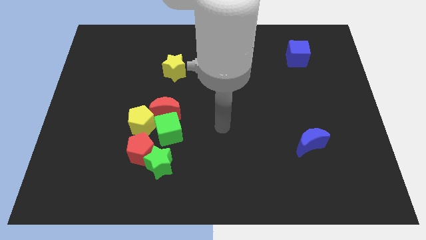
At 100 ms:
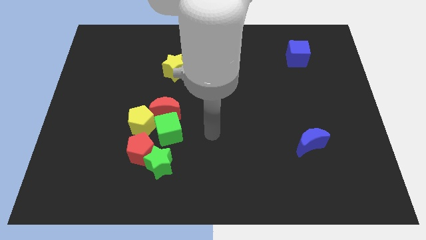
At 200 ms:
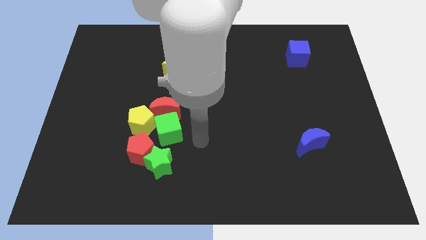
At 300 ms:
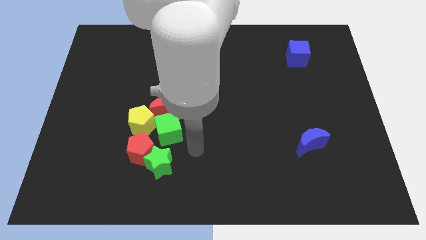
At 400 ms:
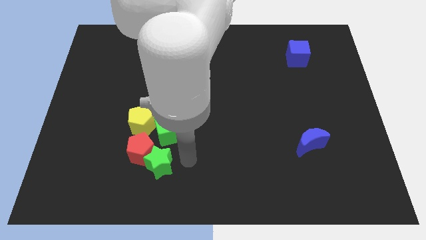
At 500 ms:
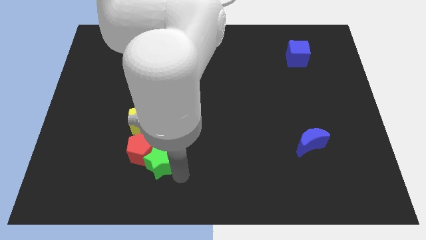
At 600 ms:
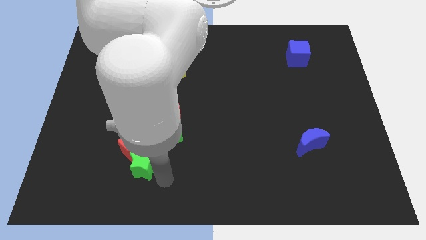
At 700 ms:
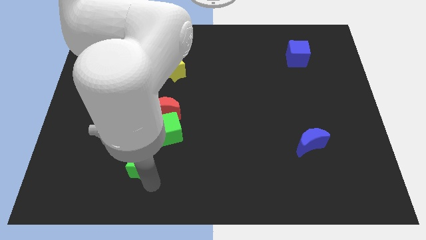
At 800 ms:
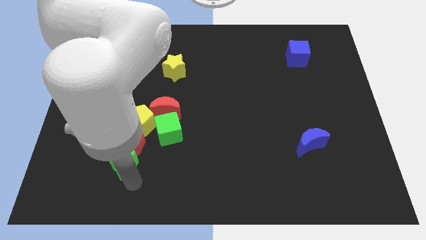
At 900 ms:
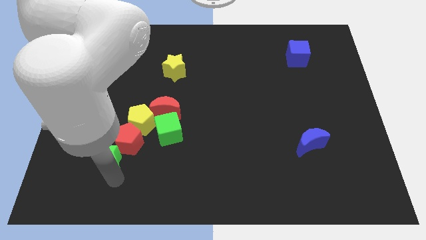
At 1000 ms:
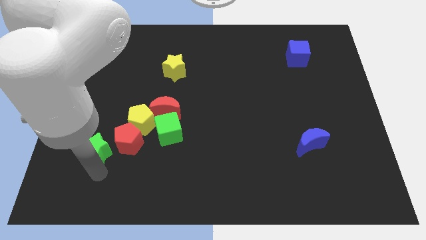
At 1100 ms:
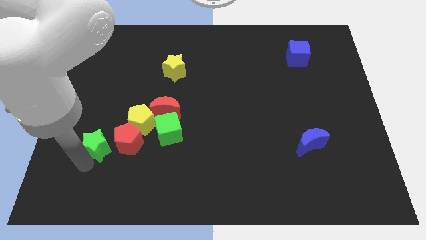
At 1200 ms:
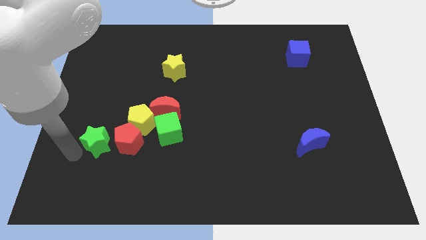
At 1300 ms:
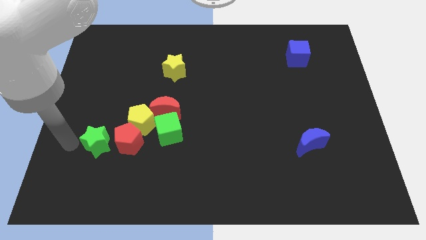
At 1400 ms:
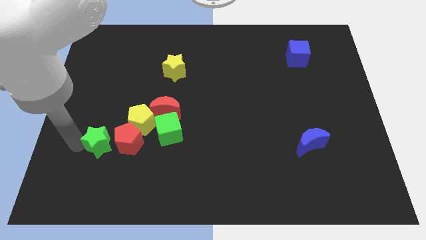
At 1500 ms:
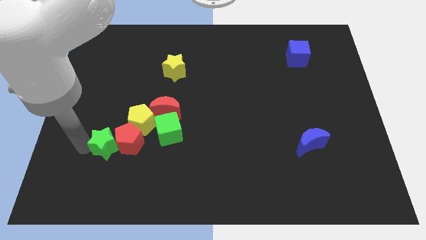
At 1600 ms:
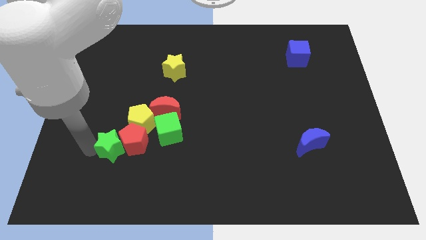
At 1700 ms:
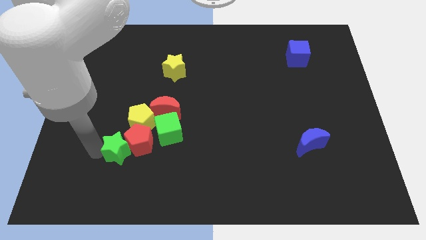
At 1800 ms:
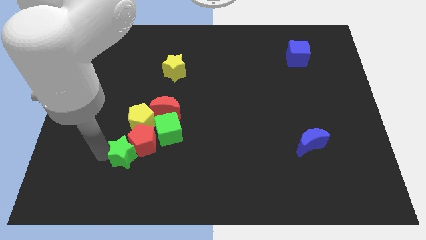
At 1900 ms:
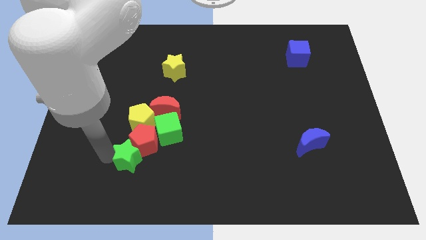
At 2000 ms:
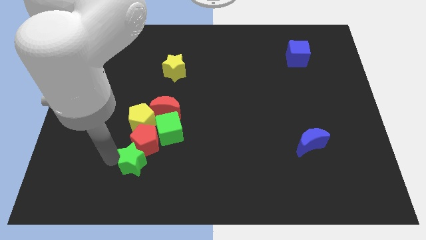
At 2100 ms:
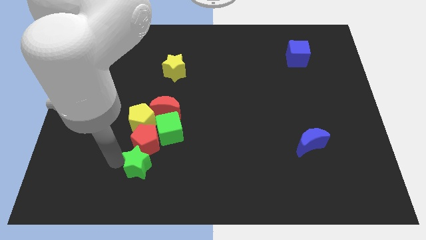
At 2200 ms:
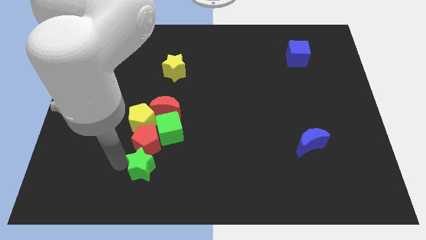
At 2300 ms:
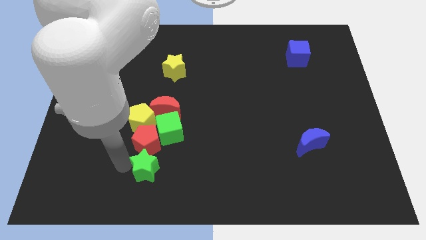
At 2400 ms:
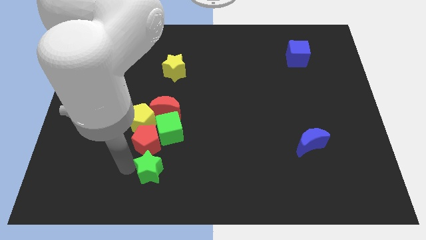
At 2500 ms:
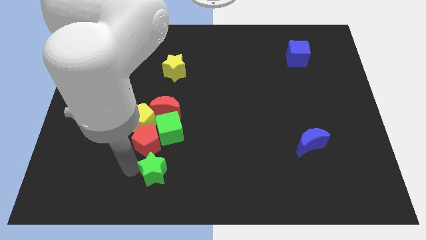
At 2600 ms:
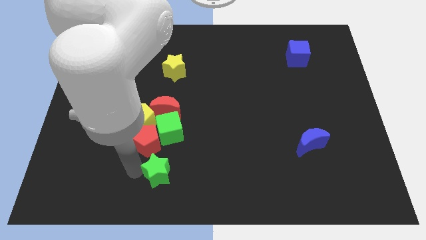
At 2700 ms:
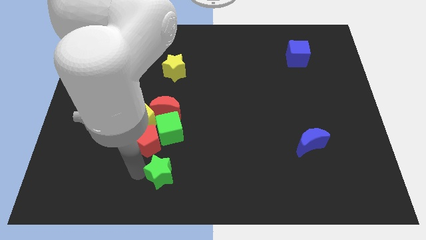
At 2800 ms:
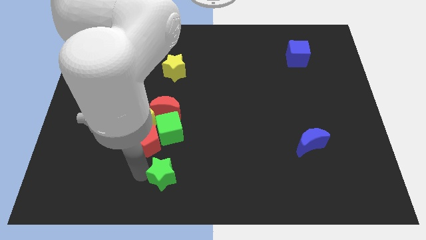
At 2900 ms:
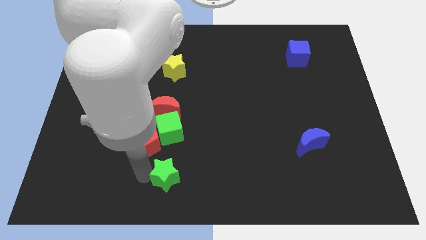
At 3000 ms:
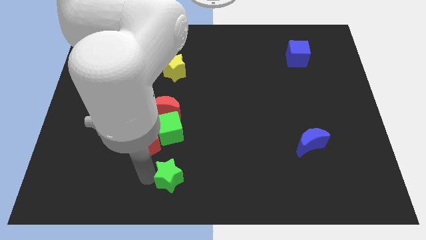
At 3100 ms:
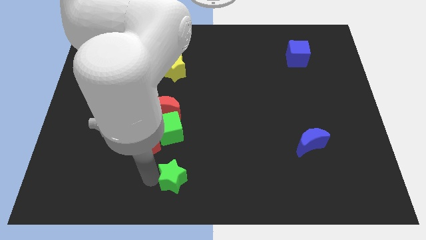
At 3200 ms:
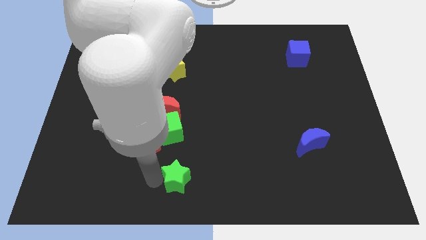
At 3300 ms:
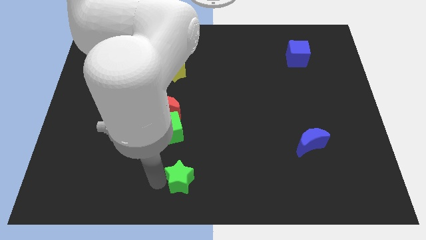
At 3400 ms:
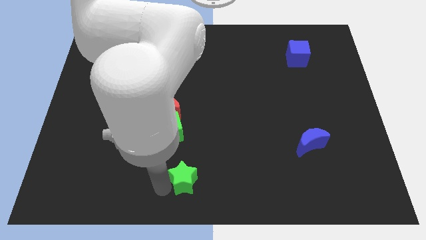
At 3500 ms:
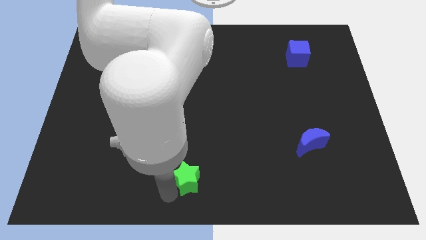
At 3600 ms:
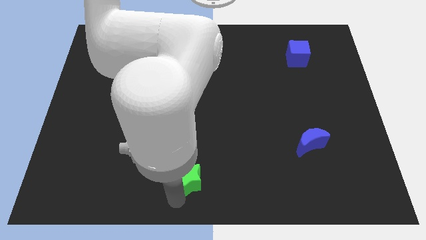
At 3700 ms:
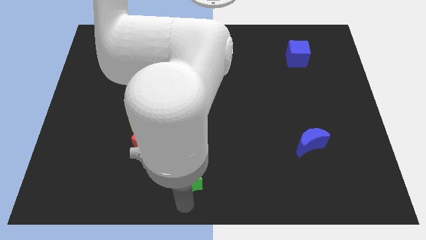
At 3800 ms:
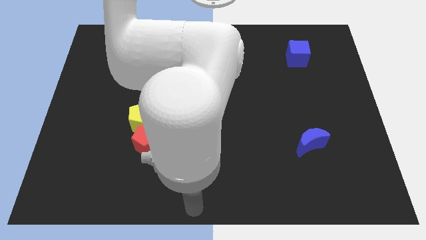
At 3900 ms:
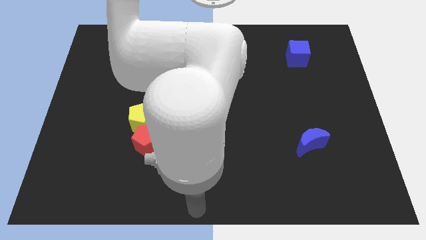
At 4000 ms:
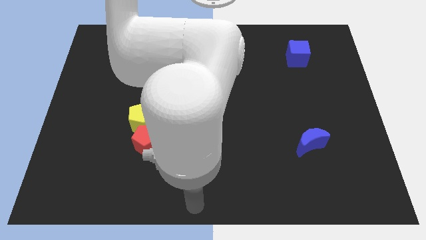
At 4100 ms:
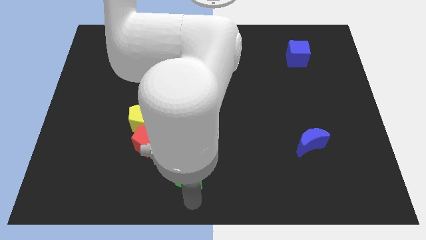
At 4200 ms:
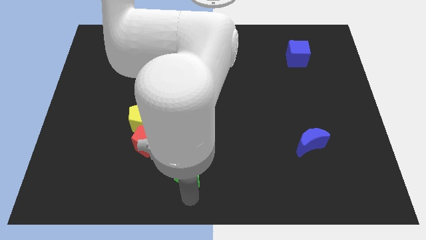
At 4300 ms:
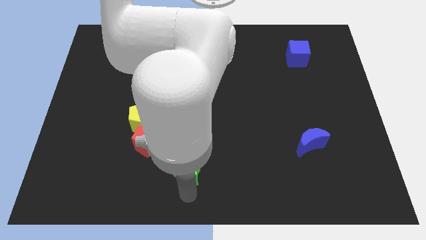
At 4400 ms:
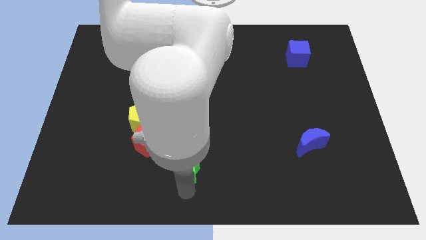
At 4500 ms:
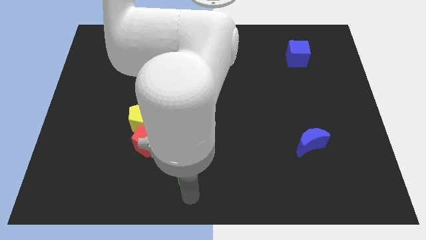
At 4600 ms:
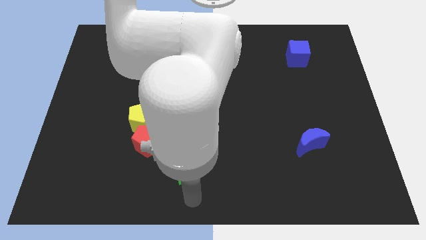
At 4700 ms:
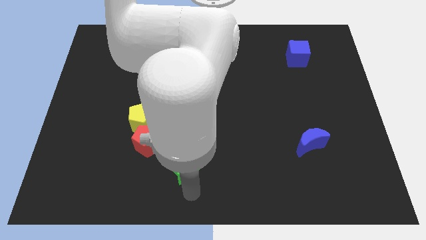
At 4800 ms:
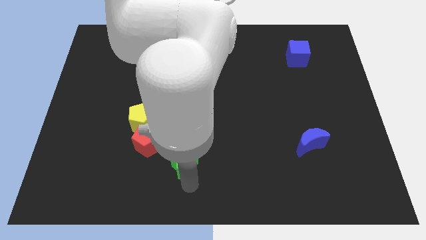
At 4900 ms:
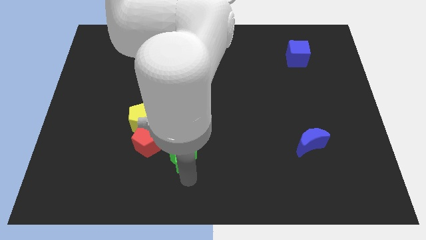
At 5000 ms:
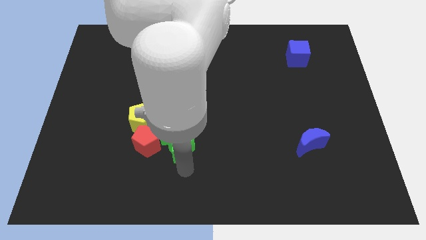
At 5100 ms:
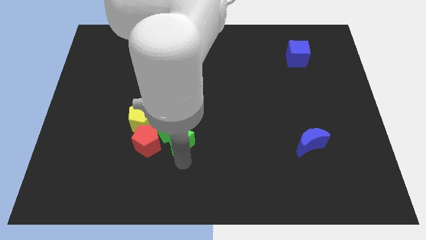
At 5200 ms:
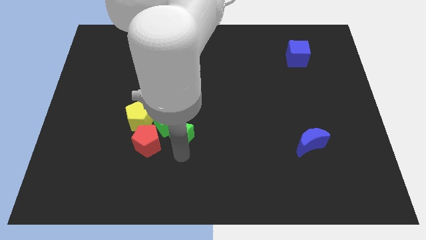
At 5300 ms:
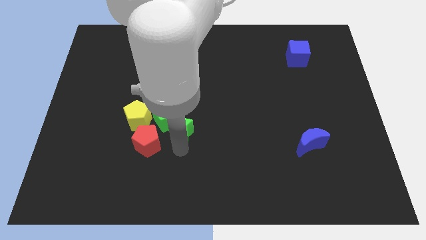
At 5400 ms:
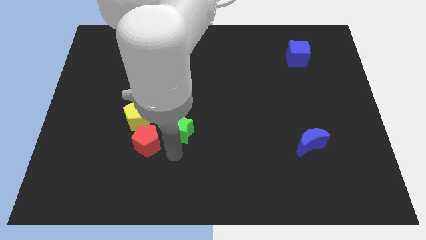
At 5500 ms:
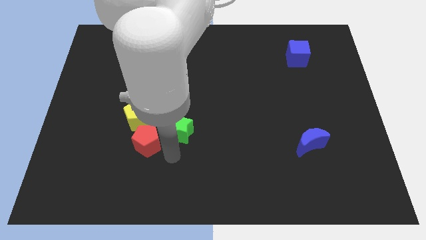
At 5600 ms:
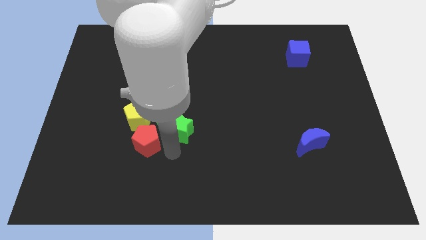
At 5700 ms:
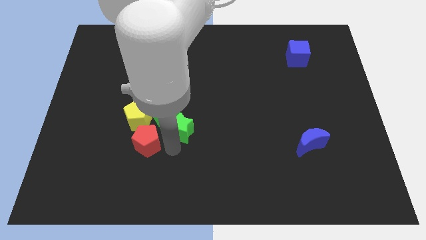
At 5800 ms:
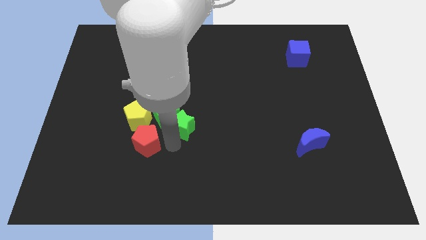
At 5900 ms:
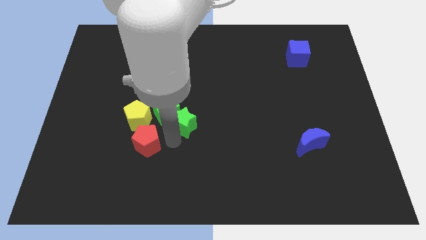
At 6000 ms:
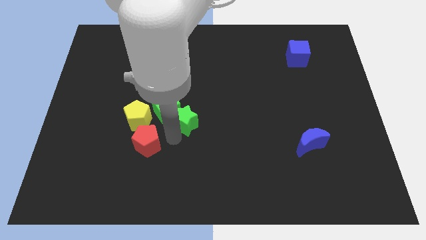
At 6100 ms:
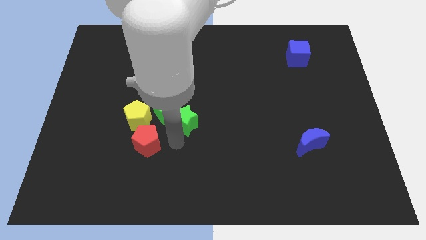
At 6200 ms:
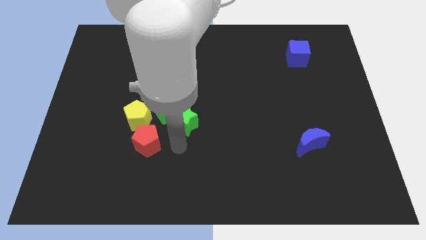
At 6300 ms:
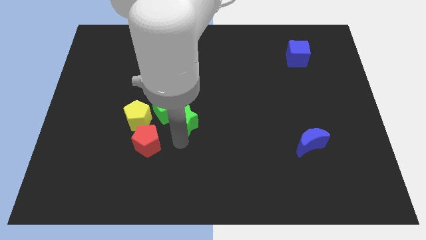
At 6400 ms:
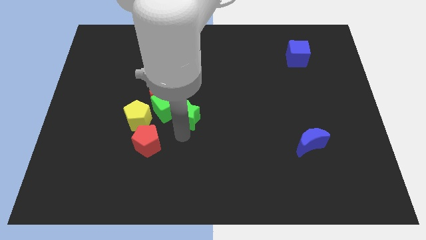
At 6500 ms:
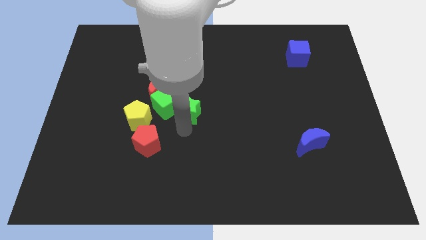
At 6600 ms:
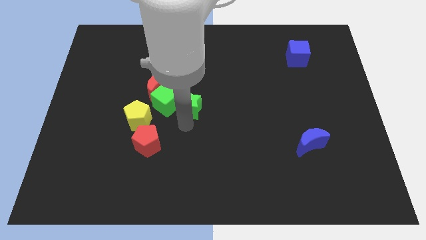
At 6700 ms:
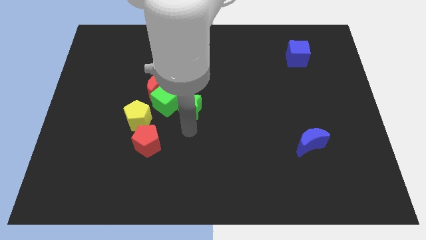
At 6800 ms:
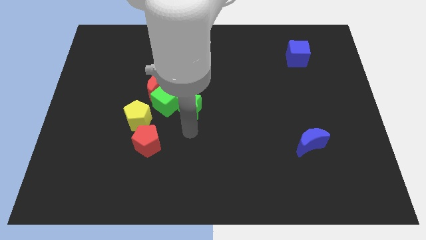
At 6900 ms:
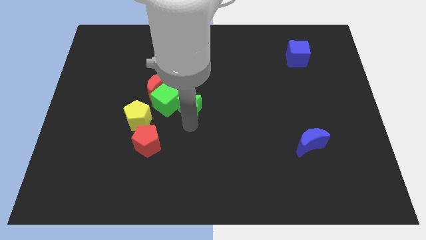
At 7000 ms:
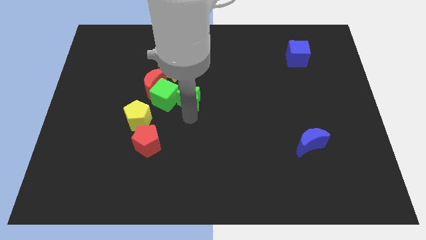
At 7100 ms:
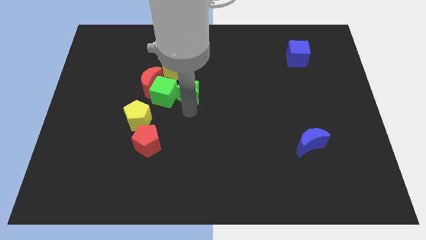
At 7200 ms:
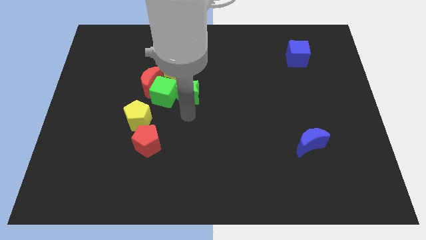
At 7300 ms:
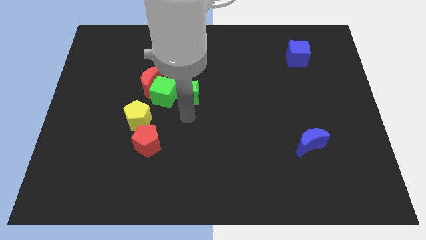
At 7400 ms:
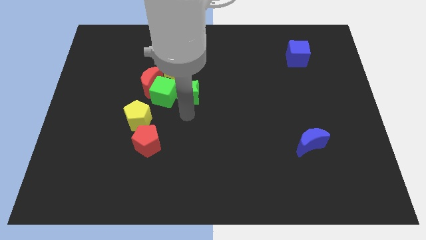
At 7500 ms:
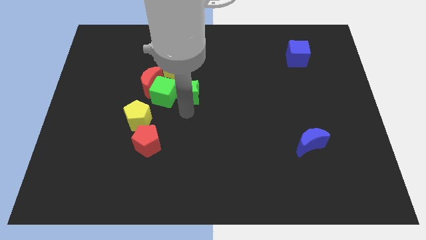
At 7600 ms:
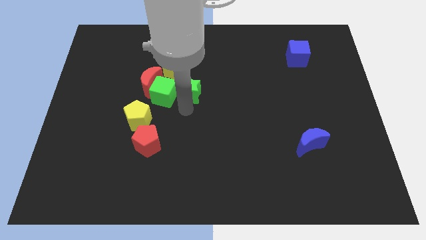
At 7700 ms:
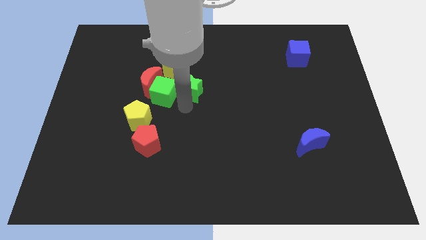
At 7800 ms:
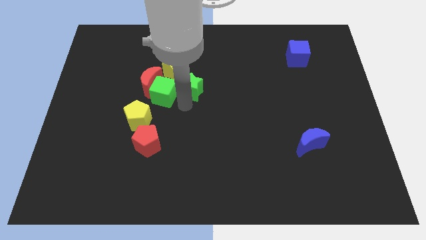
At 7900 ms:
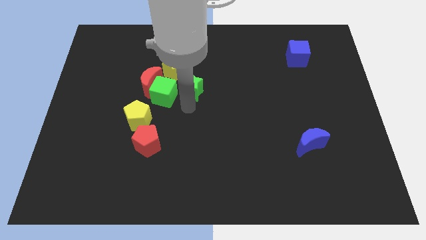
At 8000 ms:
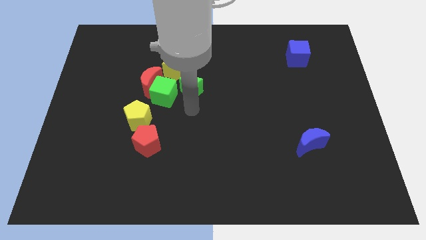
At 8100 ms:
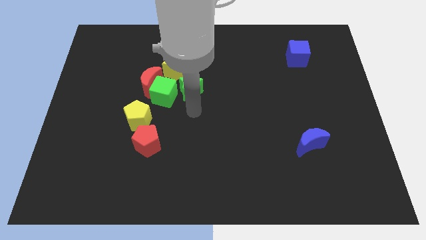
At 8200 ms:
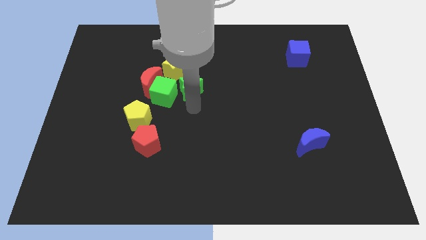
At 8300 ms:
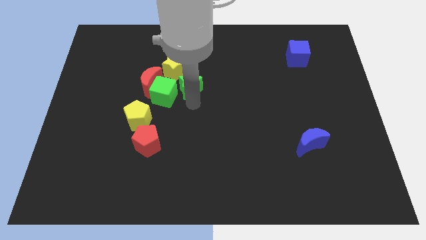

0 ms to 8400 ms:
push the green star up
